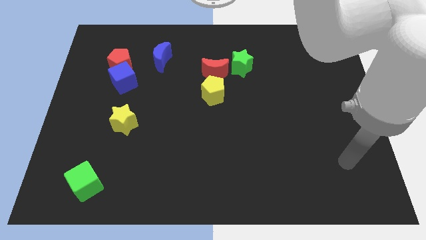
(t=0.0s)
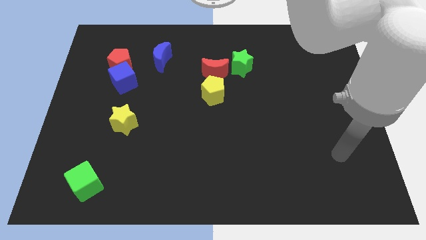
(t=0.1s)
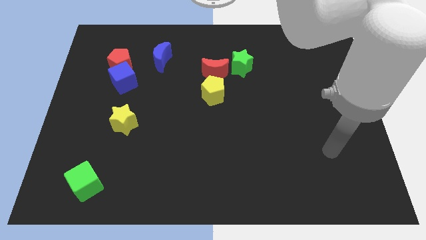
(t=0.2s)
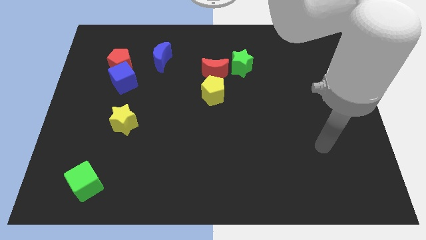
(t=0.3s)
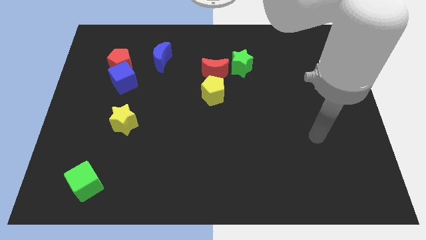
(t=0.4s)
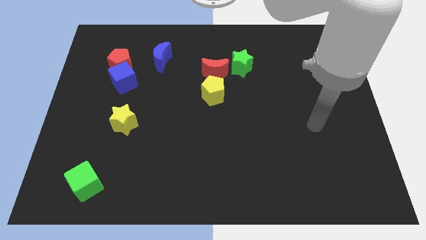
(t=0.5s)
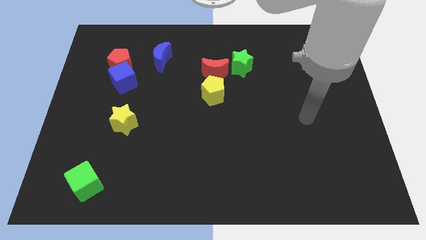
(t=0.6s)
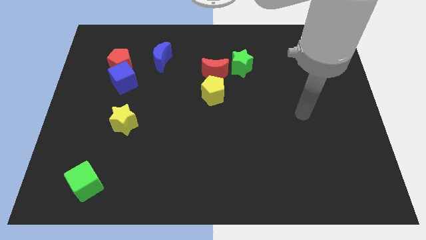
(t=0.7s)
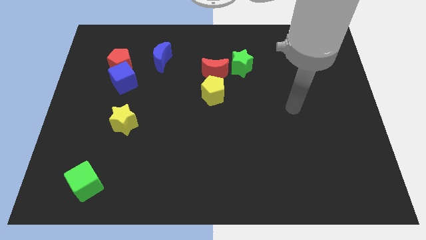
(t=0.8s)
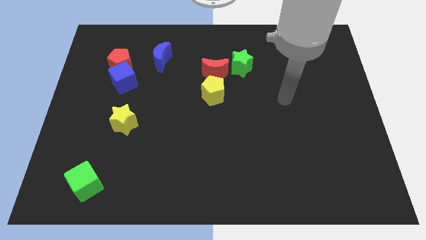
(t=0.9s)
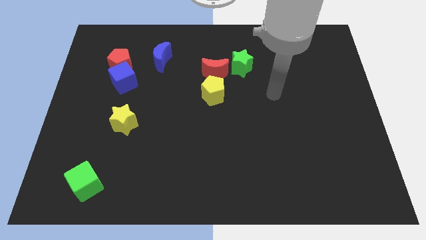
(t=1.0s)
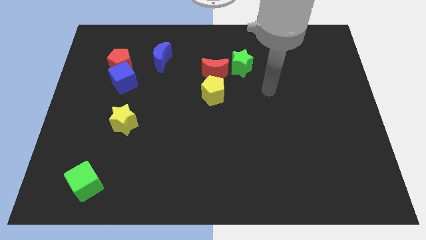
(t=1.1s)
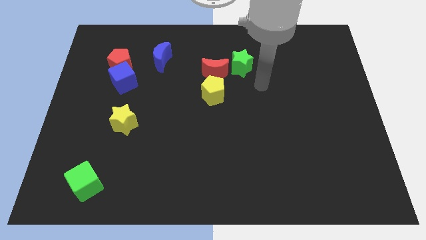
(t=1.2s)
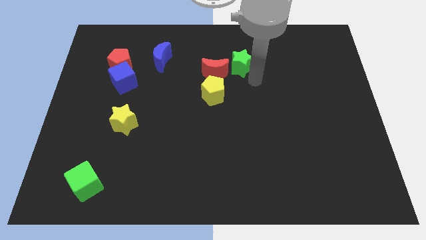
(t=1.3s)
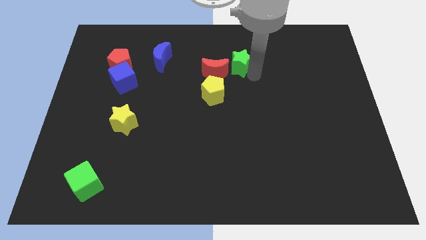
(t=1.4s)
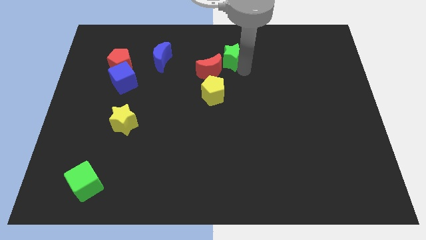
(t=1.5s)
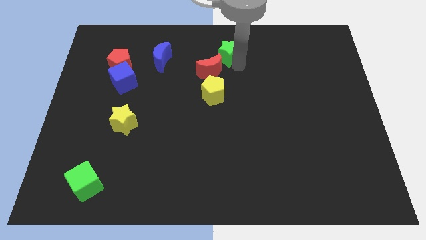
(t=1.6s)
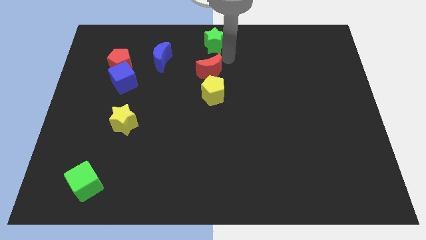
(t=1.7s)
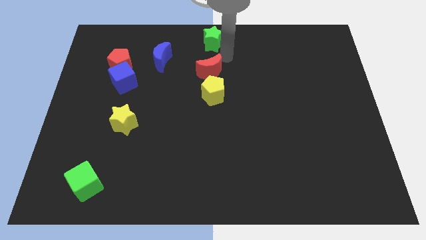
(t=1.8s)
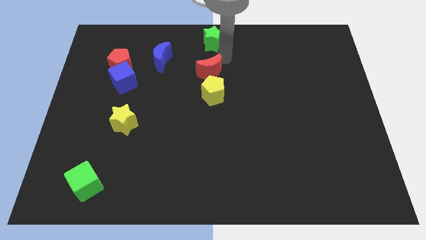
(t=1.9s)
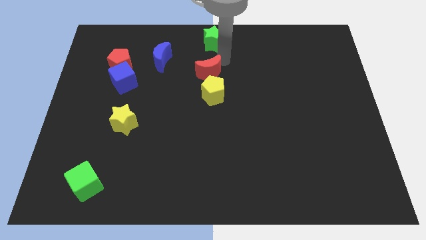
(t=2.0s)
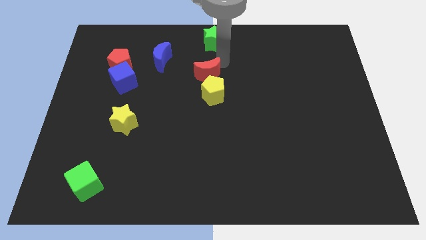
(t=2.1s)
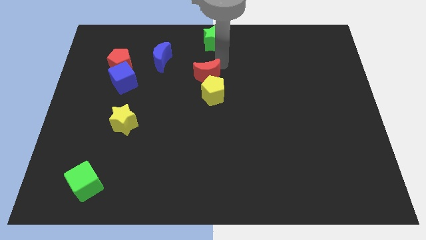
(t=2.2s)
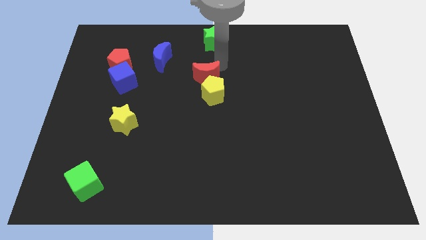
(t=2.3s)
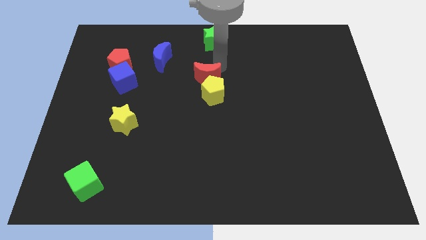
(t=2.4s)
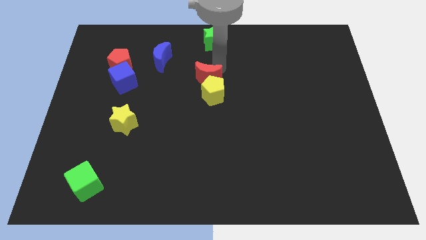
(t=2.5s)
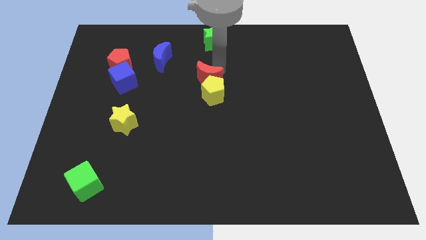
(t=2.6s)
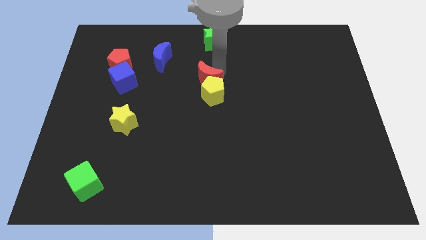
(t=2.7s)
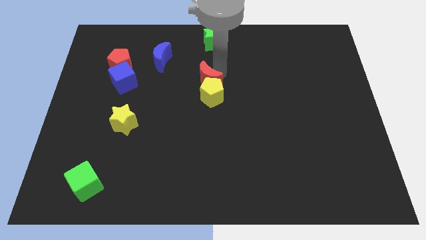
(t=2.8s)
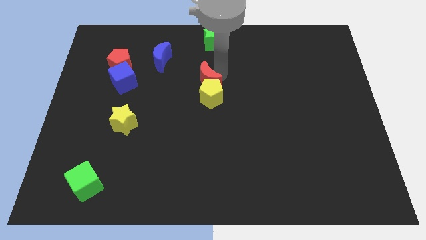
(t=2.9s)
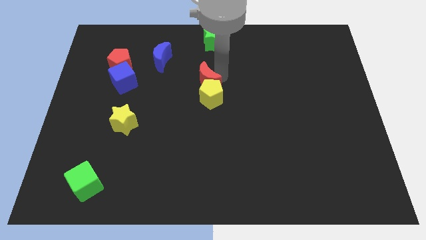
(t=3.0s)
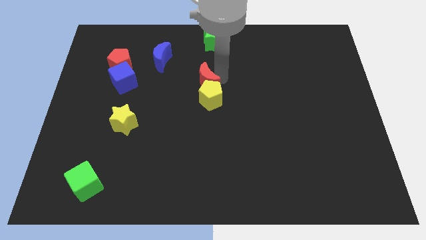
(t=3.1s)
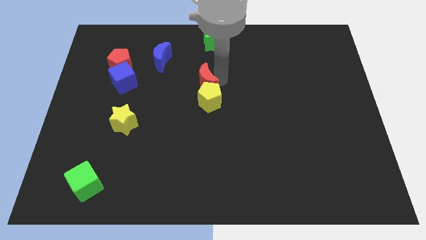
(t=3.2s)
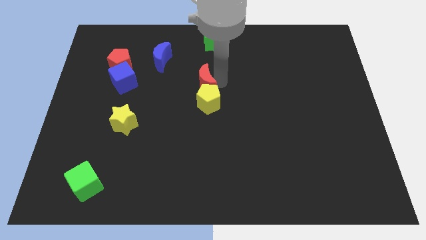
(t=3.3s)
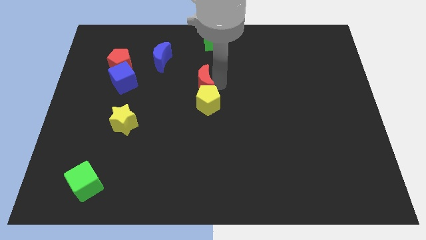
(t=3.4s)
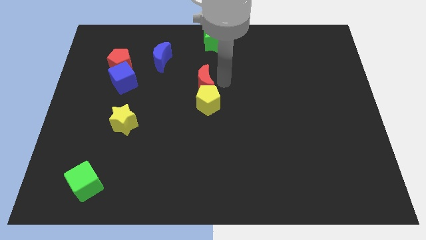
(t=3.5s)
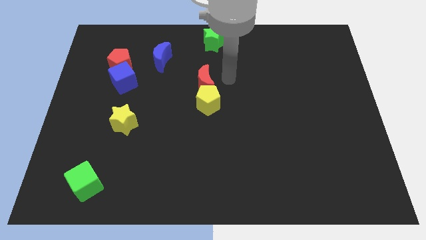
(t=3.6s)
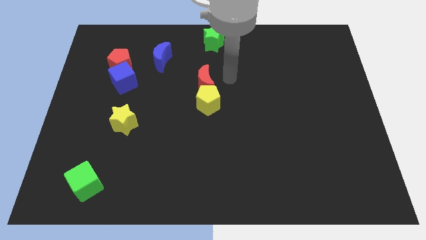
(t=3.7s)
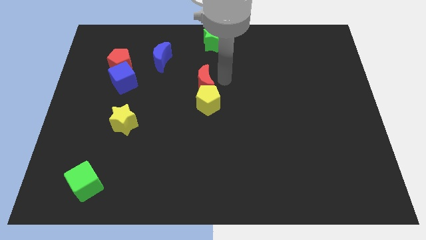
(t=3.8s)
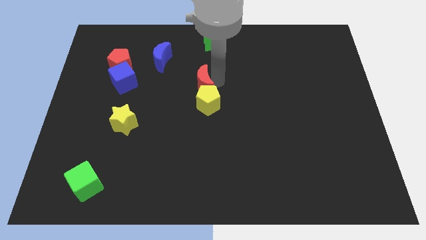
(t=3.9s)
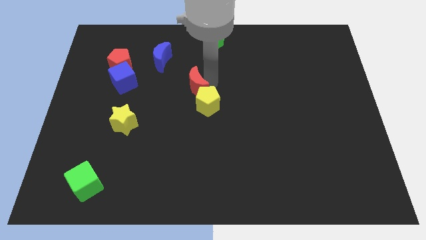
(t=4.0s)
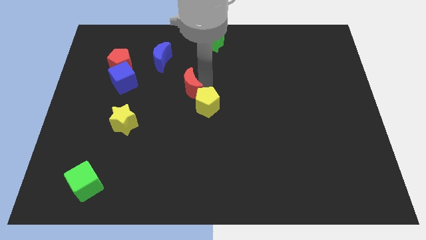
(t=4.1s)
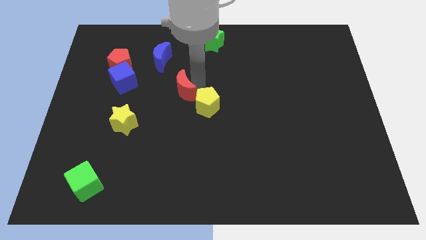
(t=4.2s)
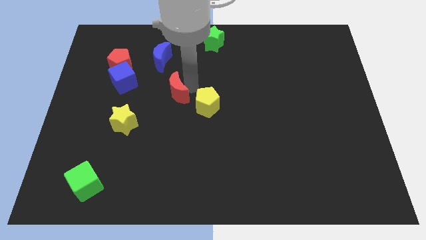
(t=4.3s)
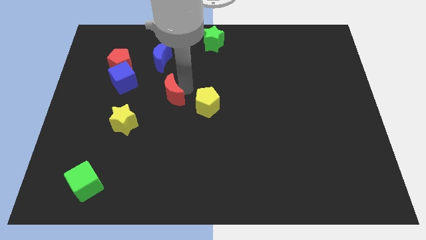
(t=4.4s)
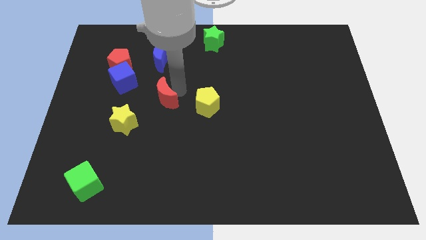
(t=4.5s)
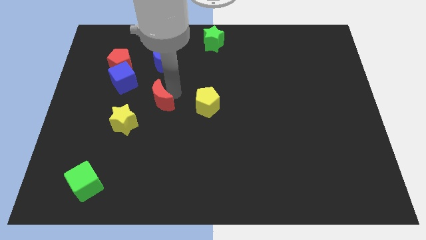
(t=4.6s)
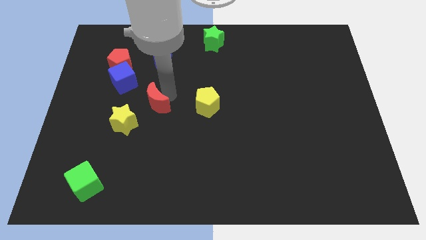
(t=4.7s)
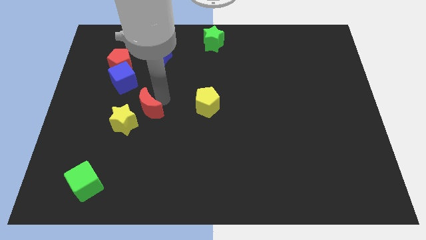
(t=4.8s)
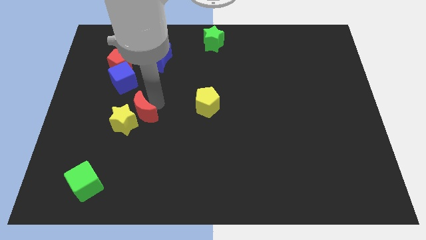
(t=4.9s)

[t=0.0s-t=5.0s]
slide the red moon towards the yellow star

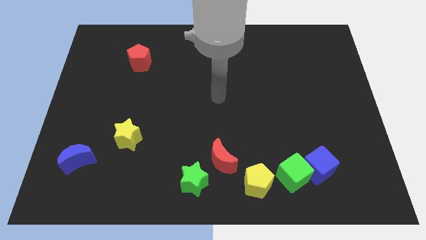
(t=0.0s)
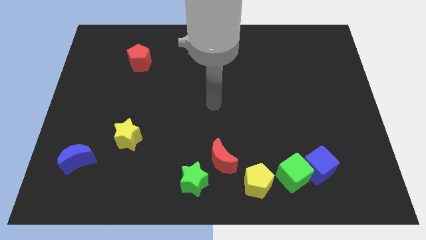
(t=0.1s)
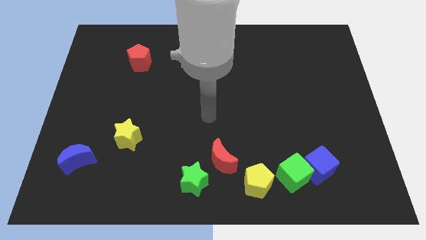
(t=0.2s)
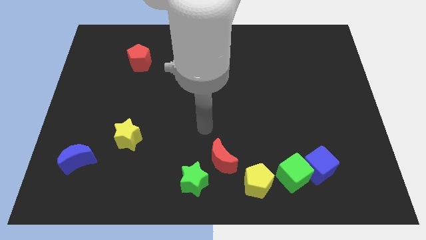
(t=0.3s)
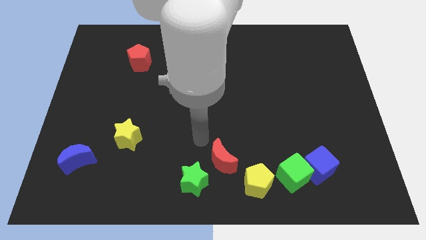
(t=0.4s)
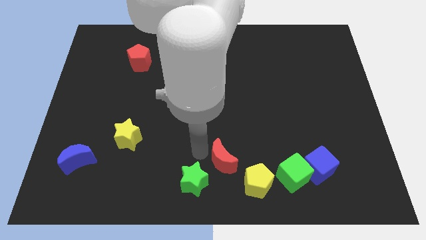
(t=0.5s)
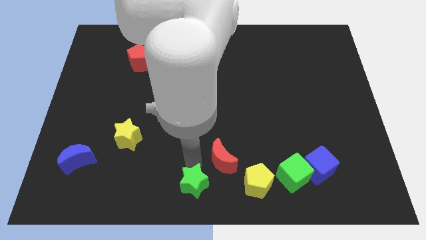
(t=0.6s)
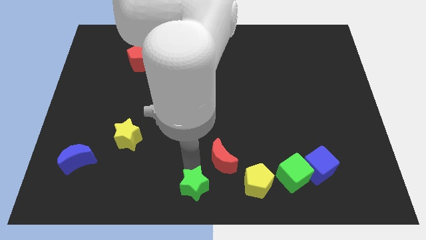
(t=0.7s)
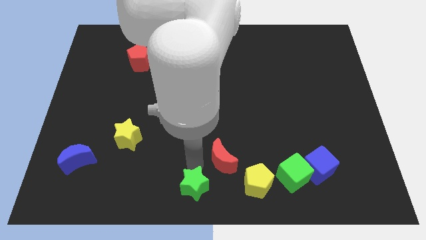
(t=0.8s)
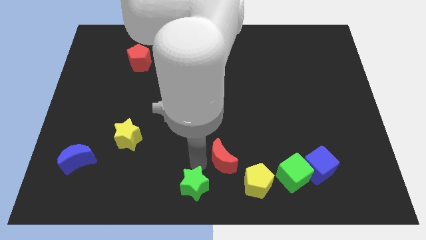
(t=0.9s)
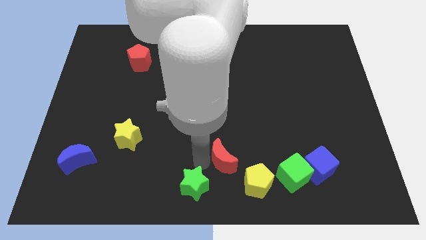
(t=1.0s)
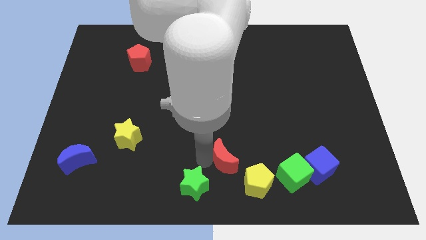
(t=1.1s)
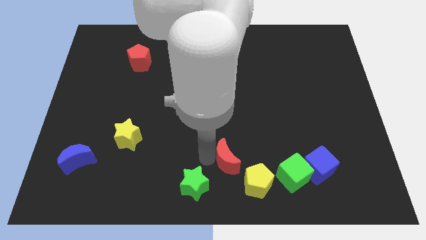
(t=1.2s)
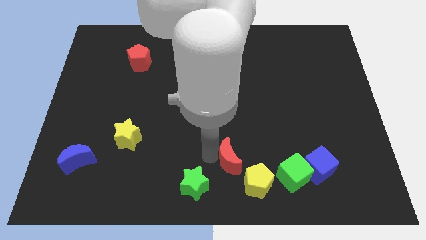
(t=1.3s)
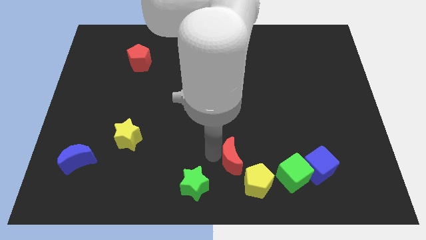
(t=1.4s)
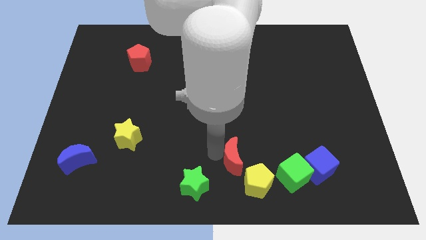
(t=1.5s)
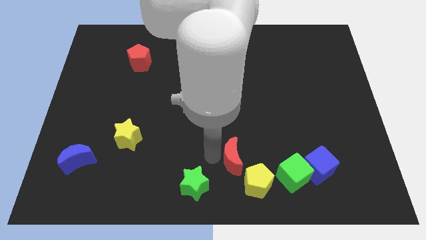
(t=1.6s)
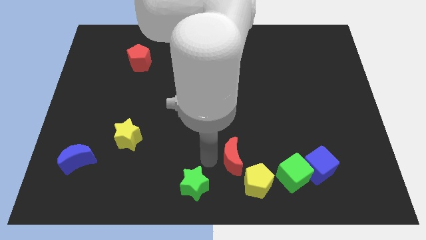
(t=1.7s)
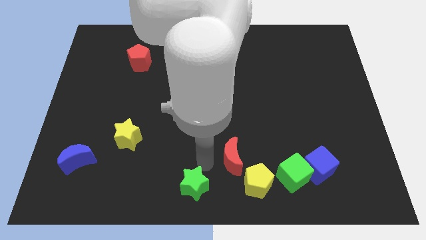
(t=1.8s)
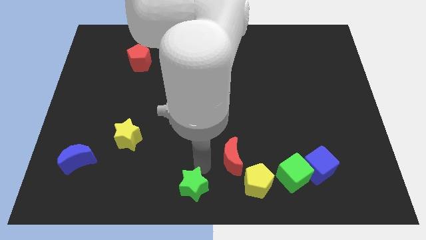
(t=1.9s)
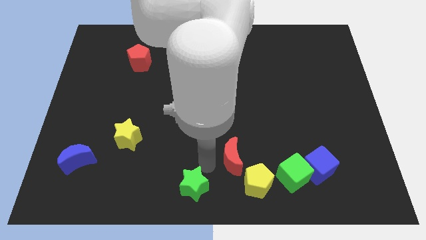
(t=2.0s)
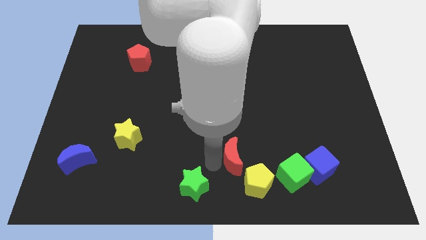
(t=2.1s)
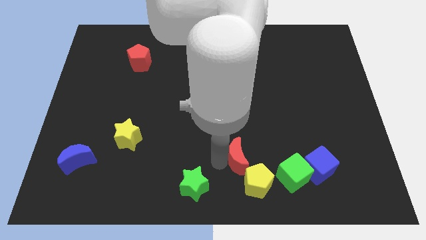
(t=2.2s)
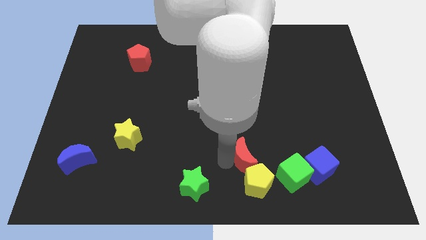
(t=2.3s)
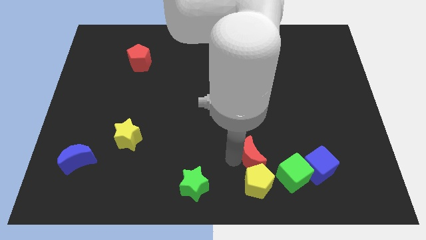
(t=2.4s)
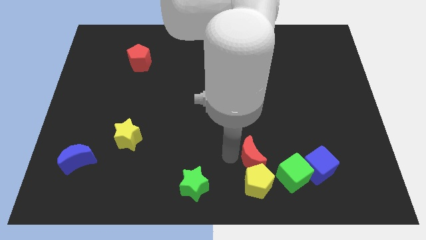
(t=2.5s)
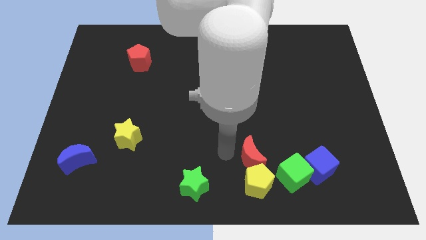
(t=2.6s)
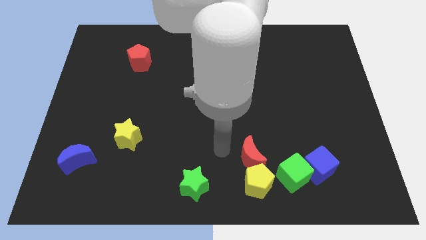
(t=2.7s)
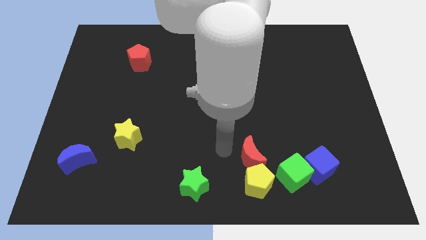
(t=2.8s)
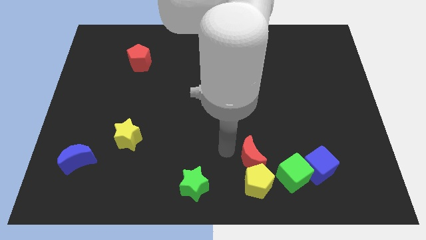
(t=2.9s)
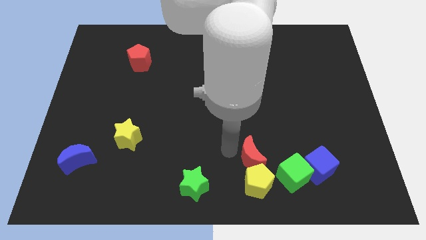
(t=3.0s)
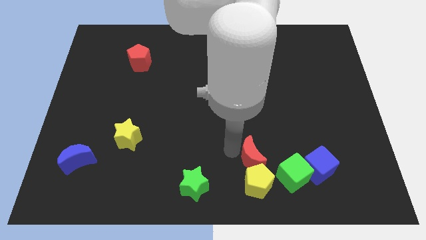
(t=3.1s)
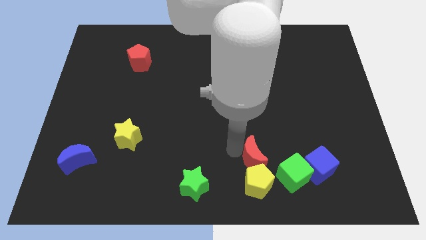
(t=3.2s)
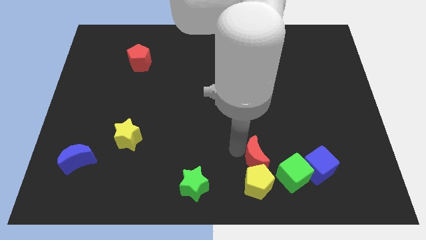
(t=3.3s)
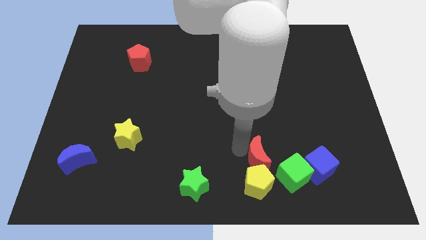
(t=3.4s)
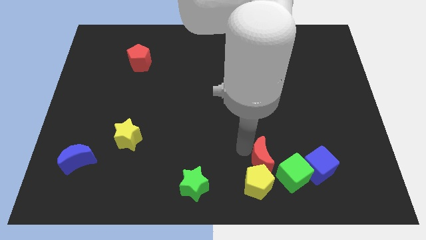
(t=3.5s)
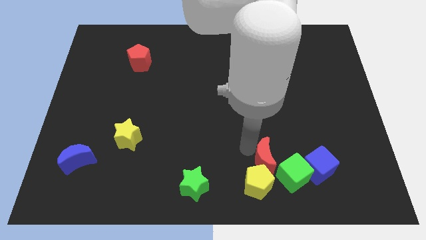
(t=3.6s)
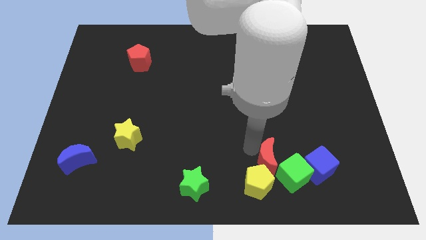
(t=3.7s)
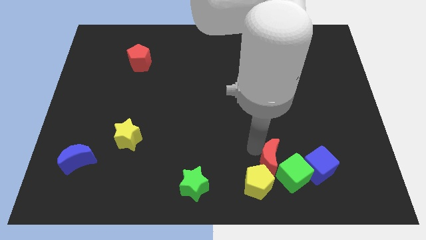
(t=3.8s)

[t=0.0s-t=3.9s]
slide the red moon to the green cube
